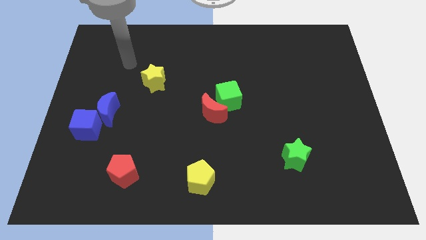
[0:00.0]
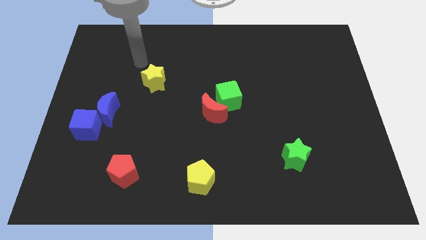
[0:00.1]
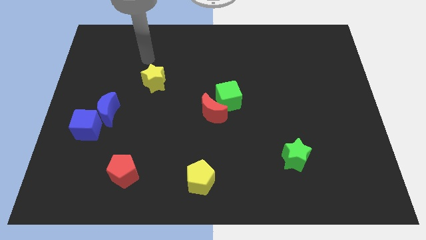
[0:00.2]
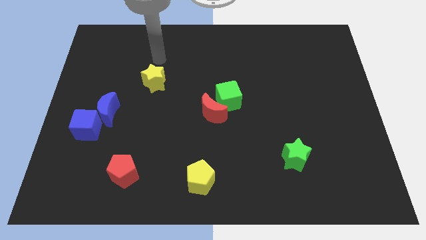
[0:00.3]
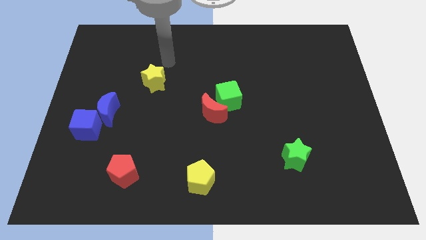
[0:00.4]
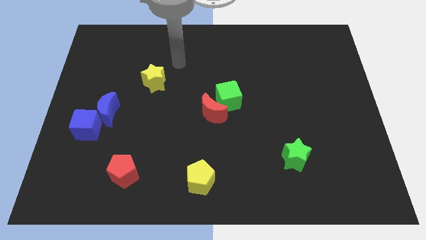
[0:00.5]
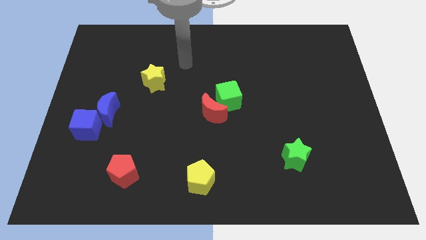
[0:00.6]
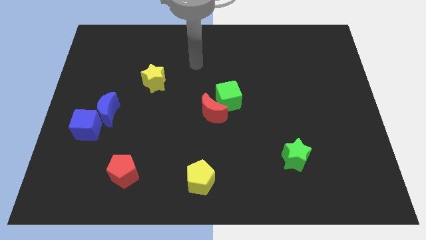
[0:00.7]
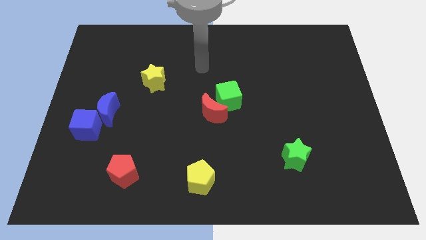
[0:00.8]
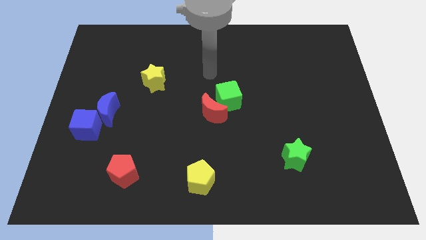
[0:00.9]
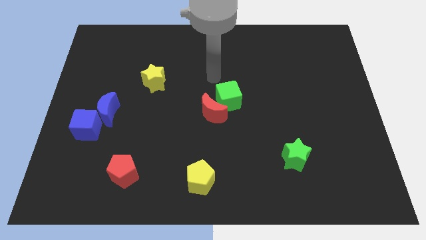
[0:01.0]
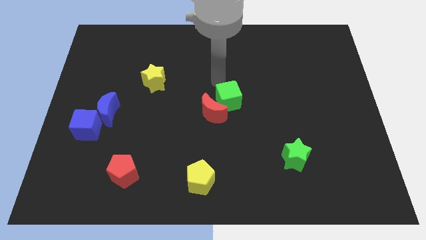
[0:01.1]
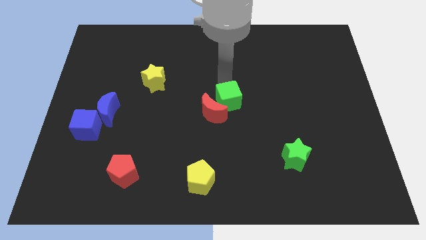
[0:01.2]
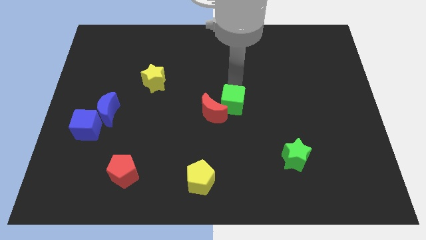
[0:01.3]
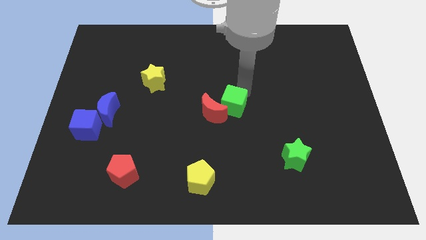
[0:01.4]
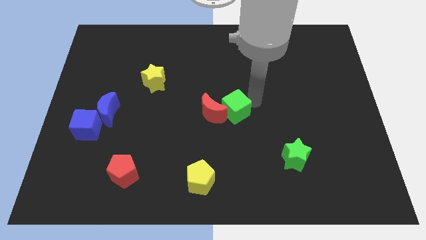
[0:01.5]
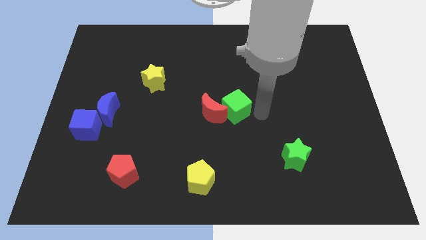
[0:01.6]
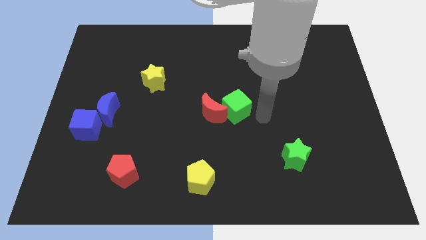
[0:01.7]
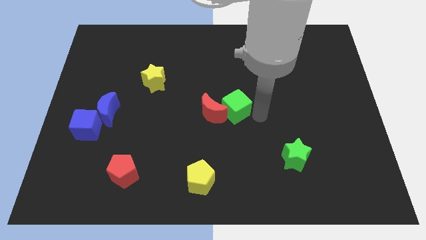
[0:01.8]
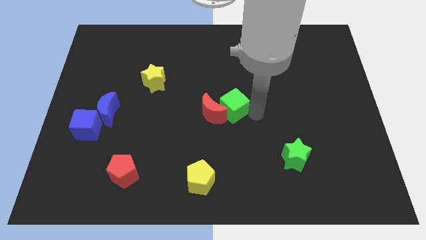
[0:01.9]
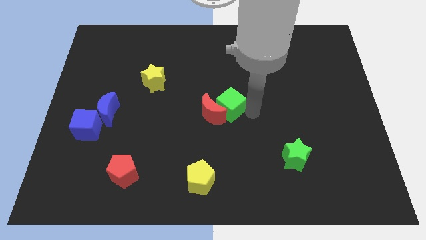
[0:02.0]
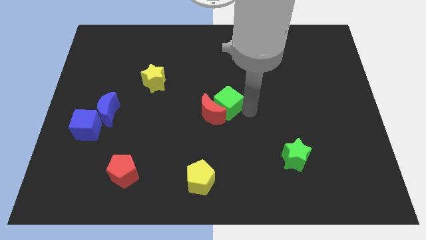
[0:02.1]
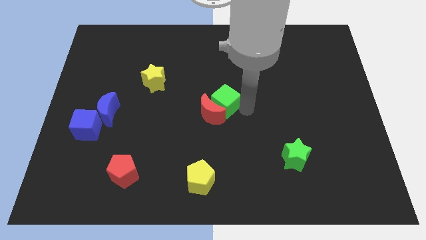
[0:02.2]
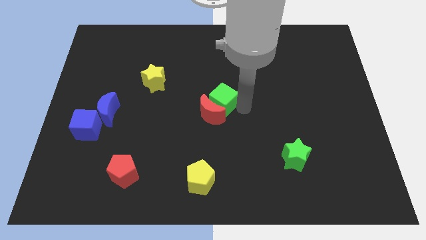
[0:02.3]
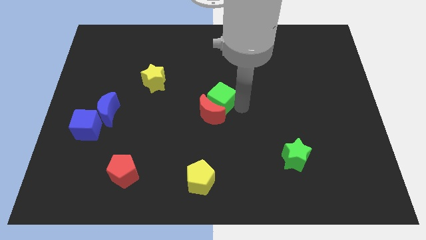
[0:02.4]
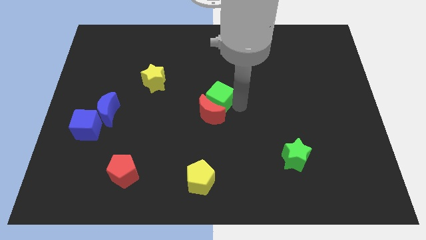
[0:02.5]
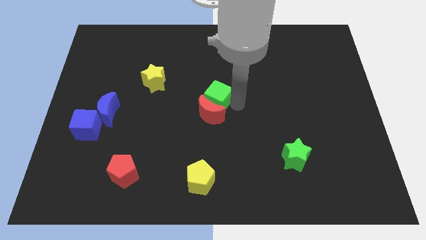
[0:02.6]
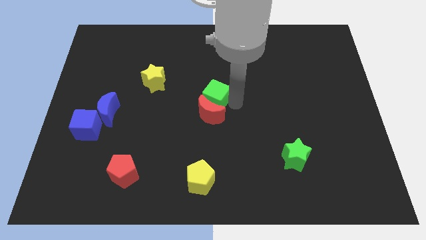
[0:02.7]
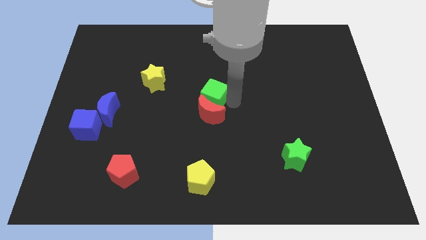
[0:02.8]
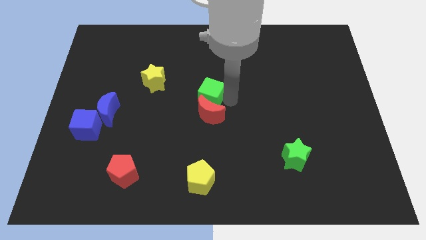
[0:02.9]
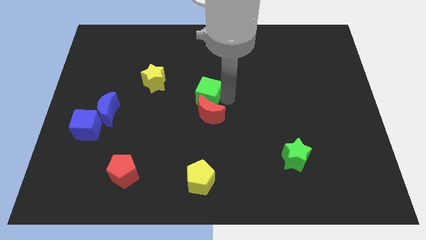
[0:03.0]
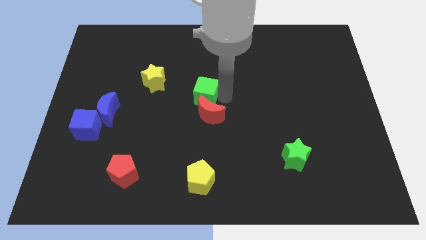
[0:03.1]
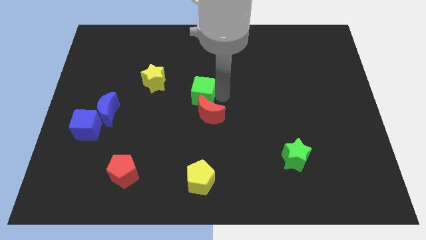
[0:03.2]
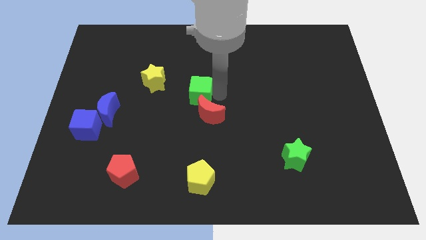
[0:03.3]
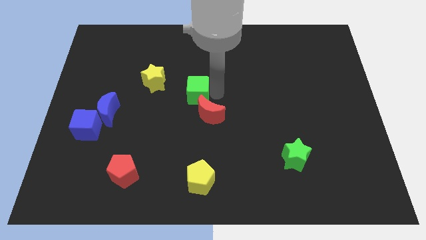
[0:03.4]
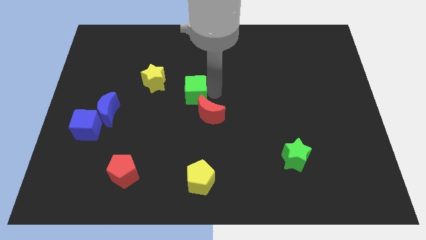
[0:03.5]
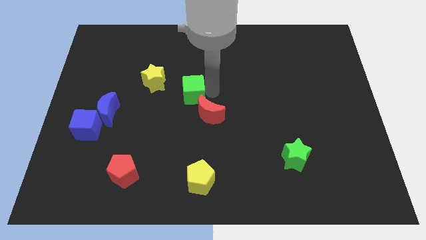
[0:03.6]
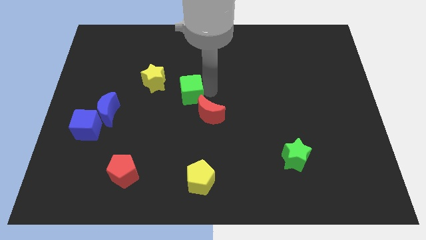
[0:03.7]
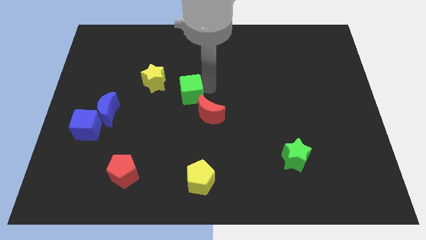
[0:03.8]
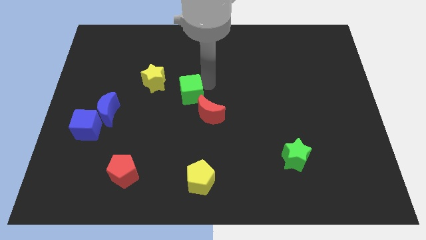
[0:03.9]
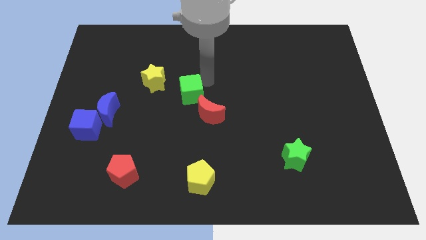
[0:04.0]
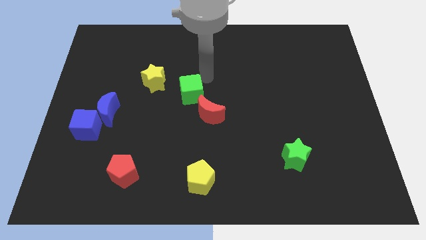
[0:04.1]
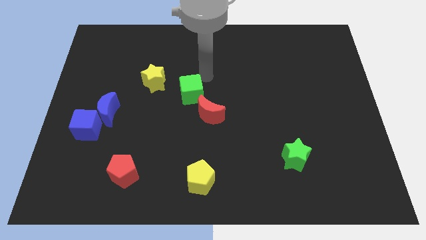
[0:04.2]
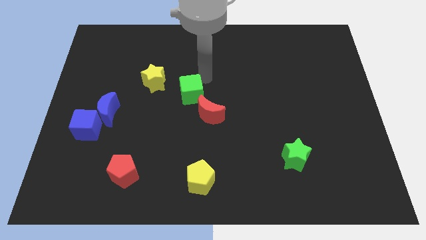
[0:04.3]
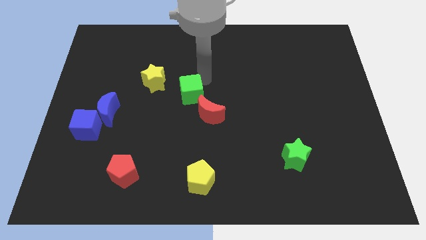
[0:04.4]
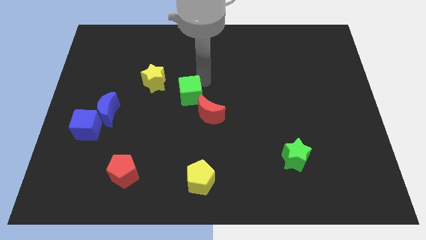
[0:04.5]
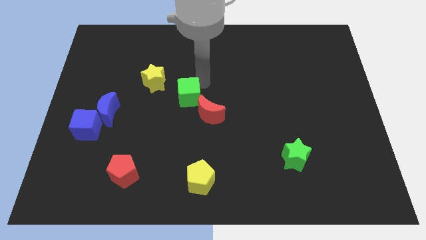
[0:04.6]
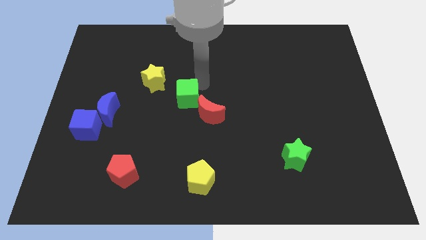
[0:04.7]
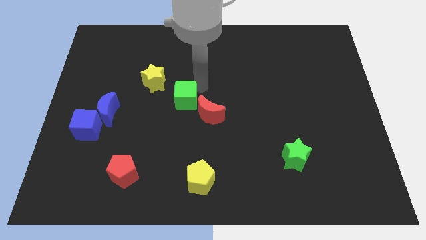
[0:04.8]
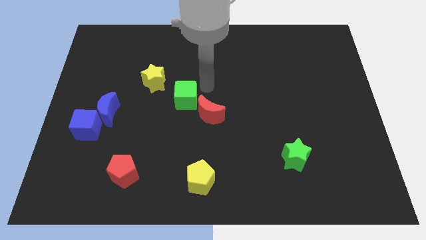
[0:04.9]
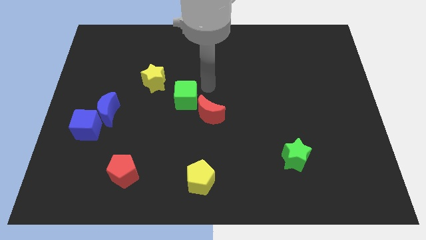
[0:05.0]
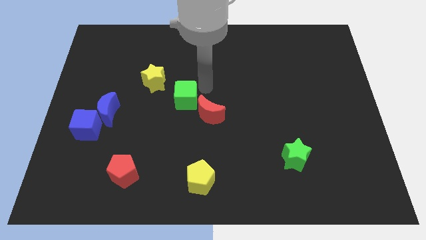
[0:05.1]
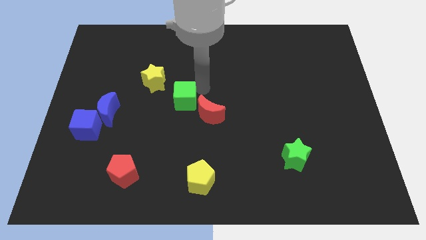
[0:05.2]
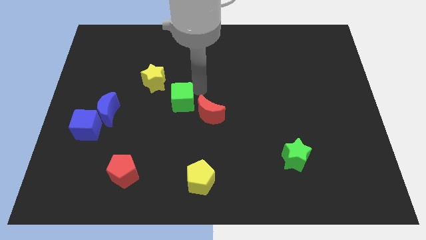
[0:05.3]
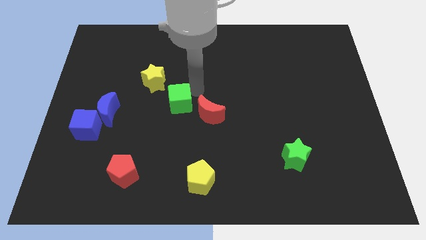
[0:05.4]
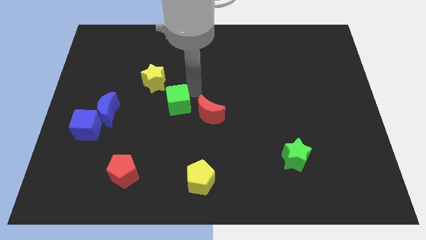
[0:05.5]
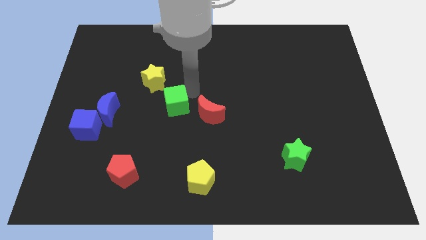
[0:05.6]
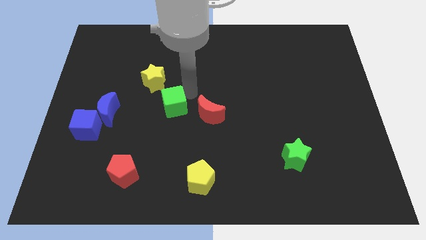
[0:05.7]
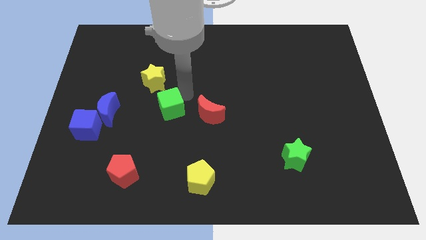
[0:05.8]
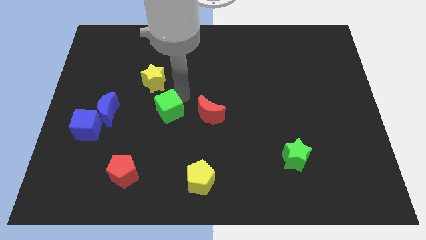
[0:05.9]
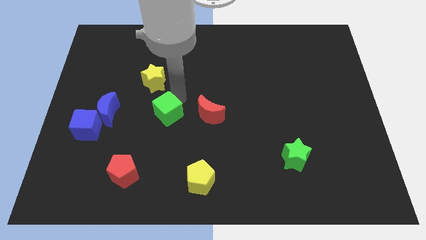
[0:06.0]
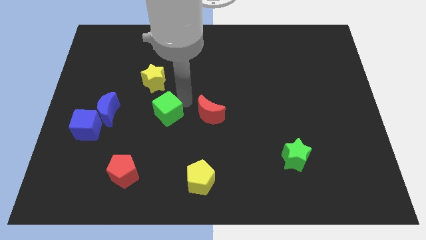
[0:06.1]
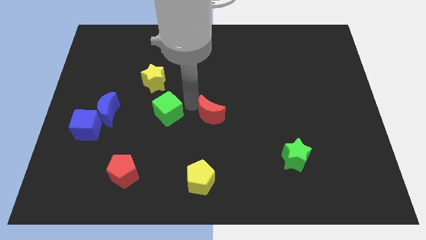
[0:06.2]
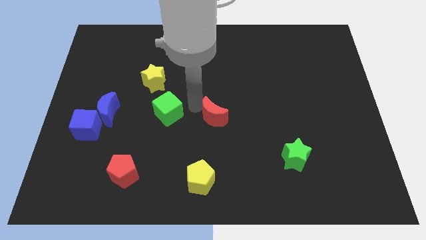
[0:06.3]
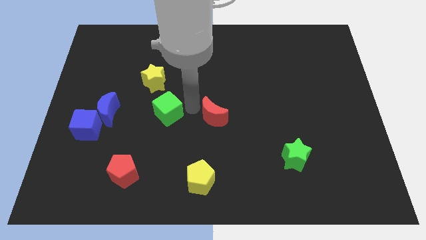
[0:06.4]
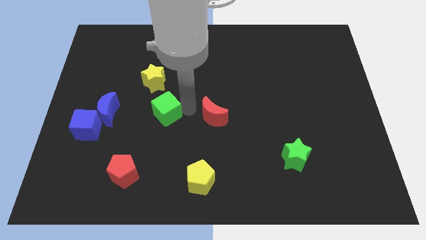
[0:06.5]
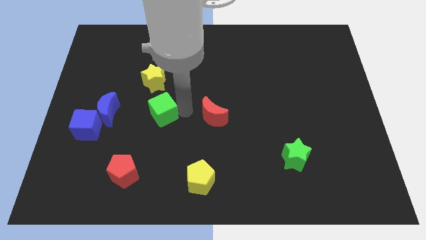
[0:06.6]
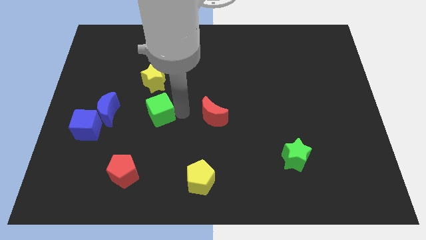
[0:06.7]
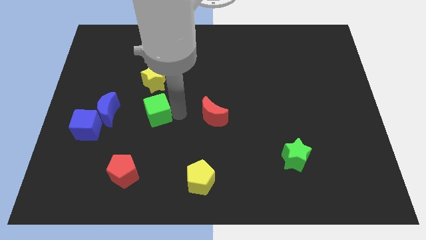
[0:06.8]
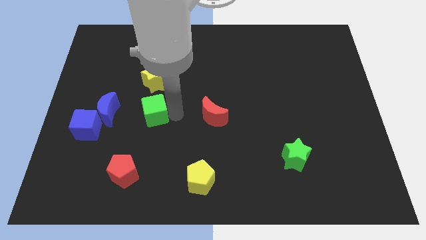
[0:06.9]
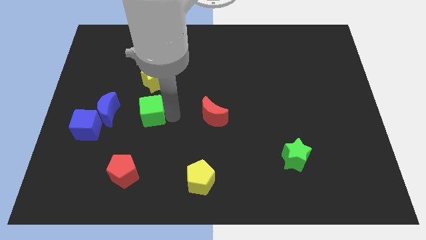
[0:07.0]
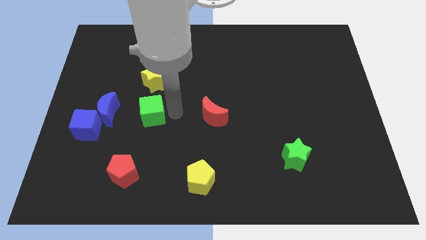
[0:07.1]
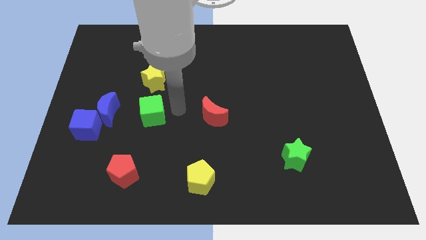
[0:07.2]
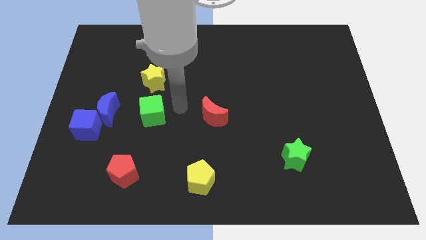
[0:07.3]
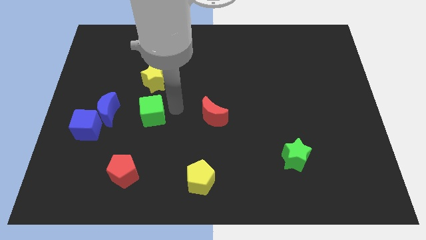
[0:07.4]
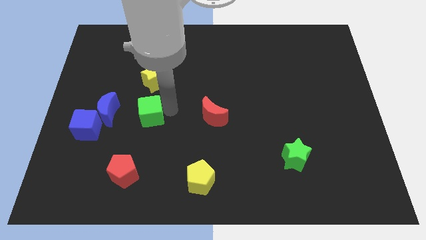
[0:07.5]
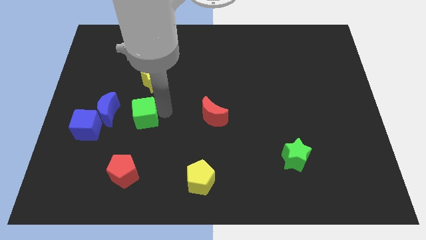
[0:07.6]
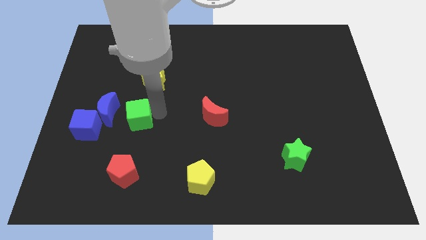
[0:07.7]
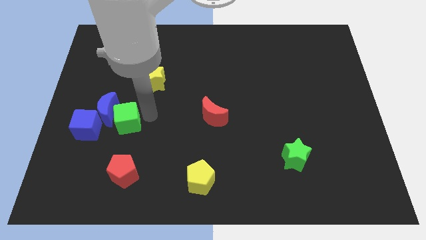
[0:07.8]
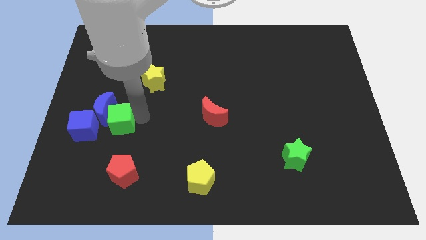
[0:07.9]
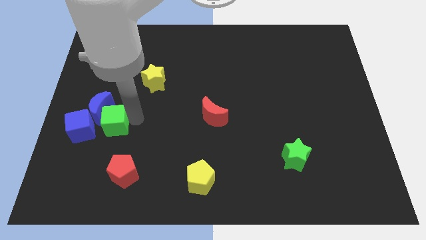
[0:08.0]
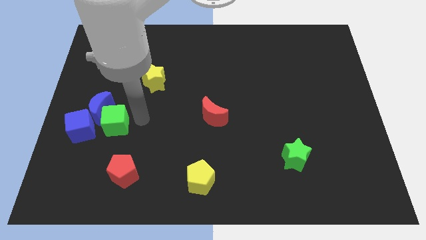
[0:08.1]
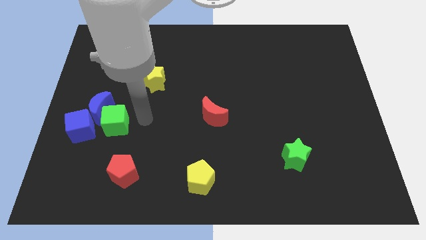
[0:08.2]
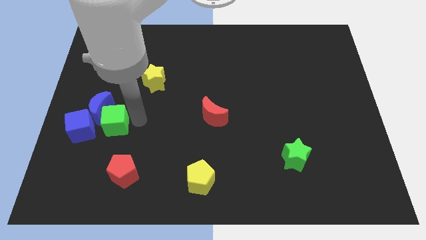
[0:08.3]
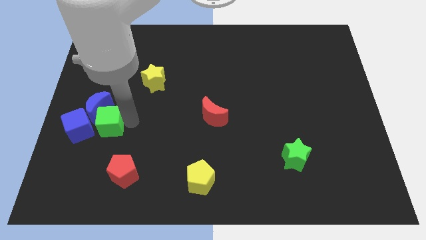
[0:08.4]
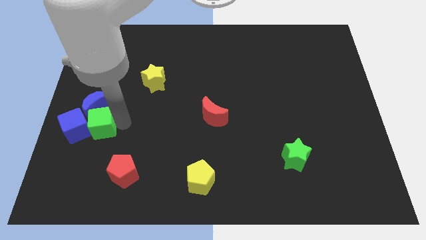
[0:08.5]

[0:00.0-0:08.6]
move the green cube close to the blue cube
